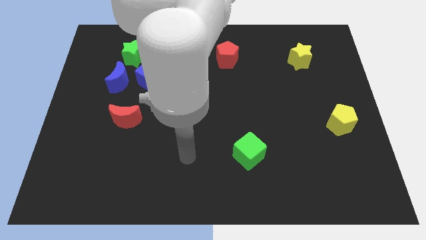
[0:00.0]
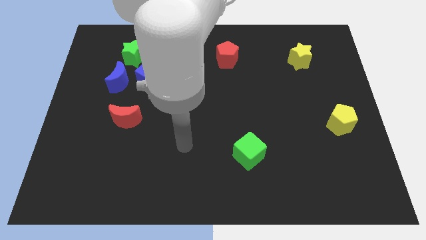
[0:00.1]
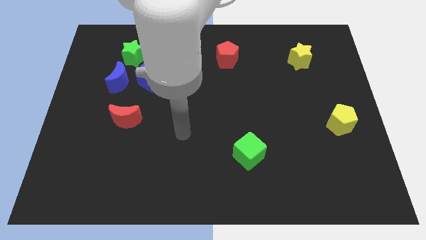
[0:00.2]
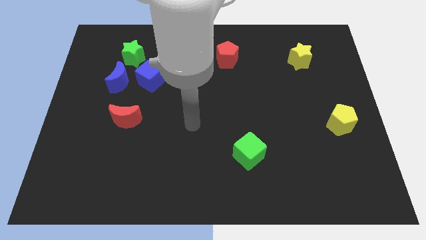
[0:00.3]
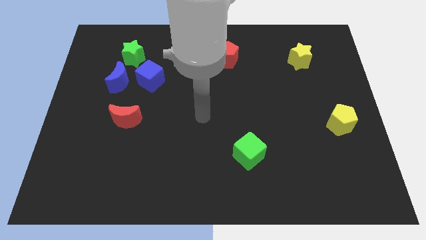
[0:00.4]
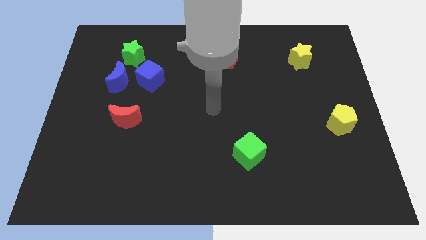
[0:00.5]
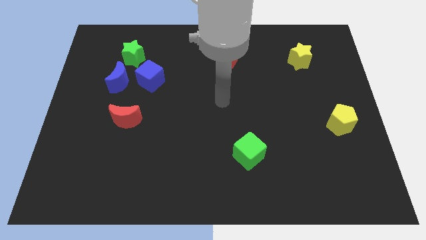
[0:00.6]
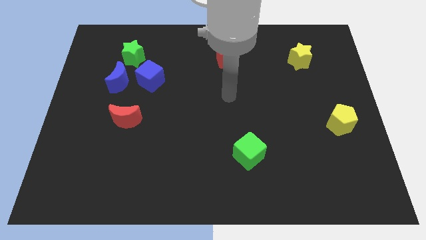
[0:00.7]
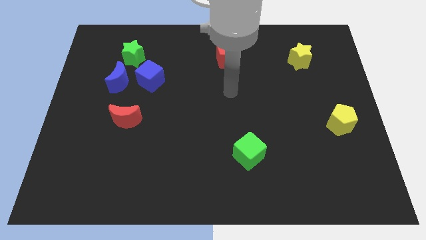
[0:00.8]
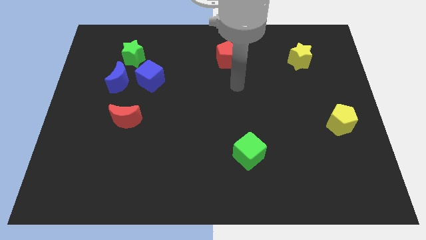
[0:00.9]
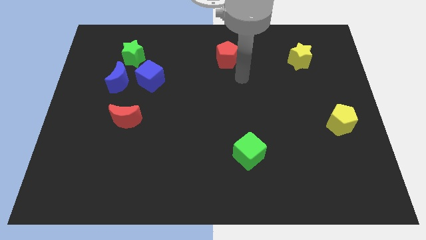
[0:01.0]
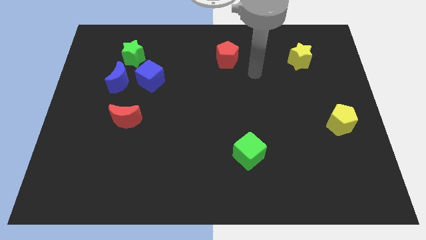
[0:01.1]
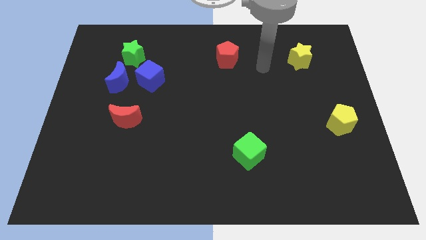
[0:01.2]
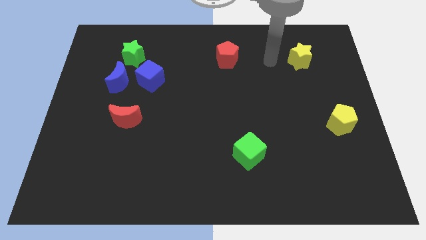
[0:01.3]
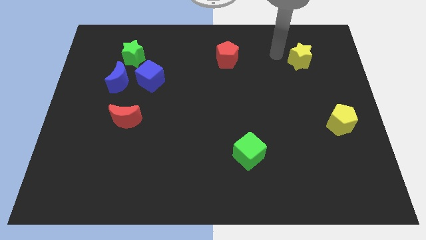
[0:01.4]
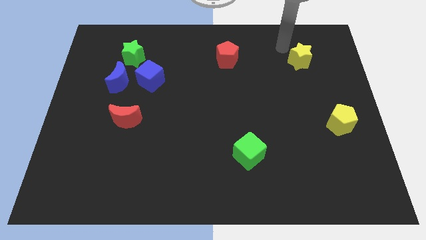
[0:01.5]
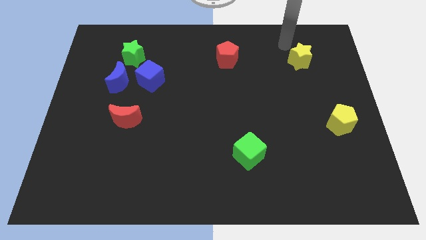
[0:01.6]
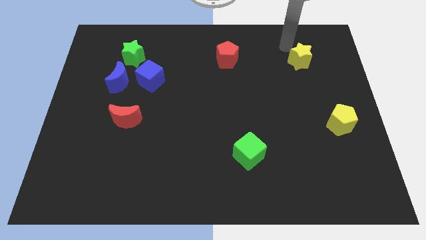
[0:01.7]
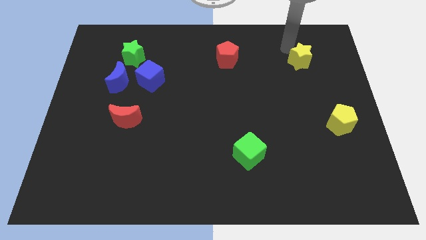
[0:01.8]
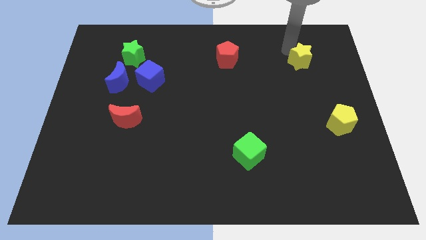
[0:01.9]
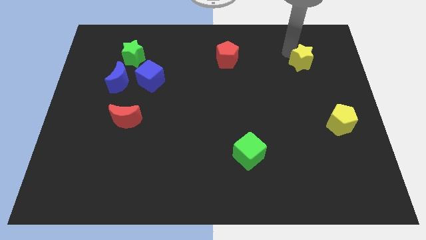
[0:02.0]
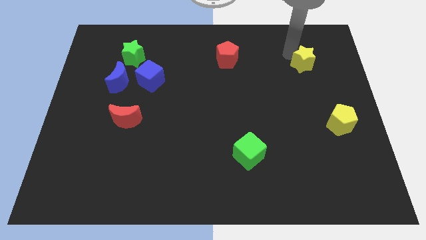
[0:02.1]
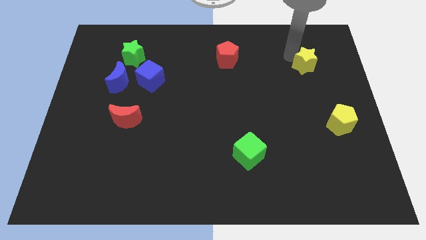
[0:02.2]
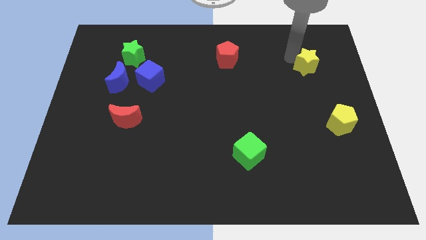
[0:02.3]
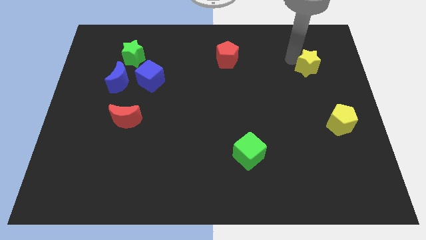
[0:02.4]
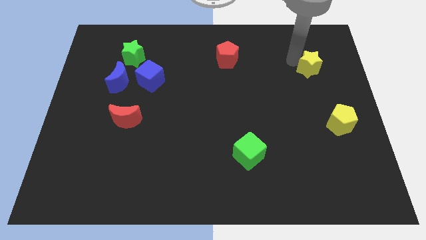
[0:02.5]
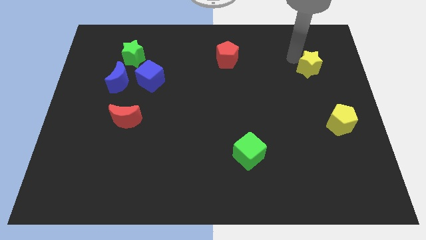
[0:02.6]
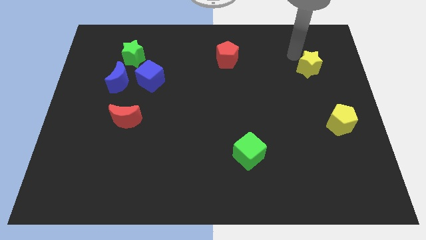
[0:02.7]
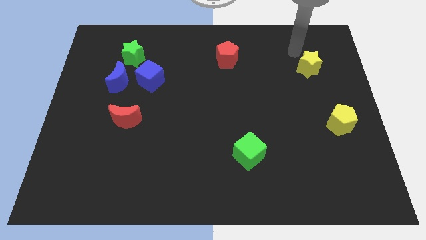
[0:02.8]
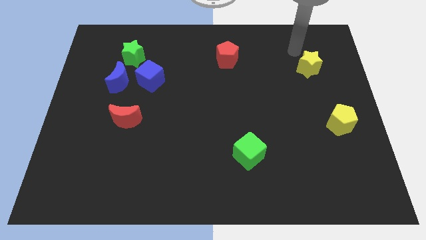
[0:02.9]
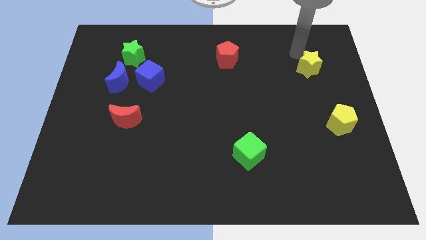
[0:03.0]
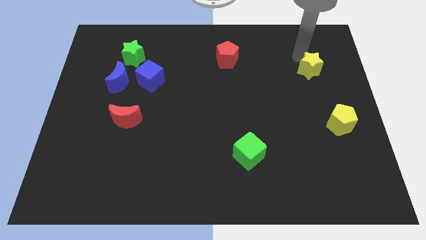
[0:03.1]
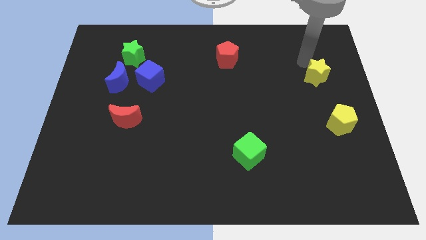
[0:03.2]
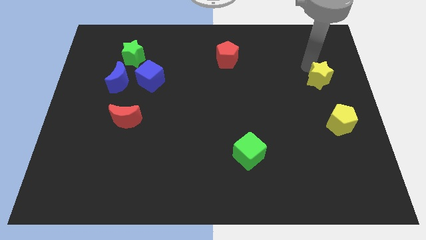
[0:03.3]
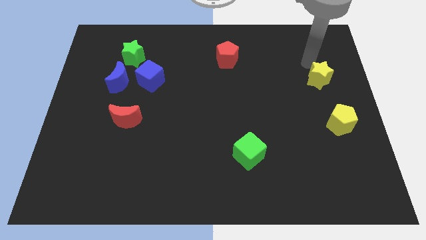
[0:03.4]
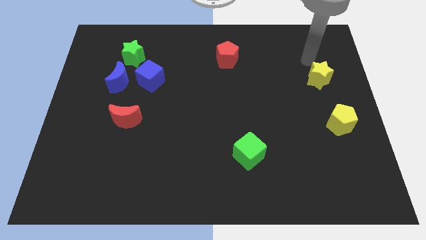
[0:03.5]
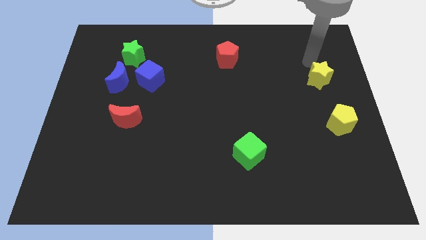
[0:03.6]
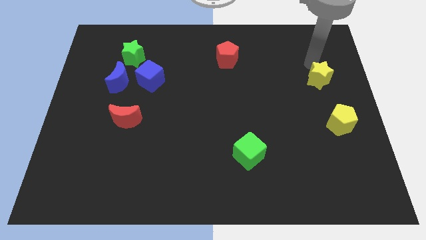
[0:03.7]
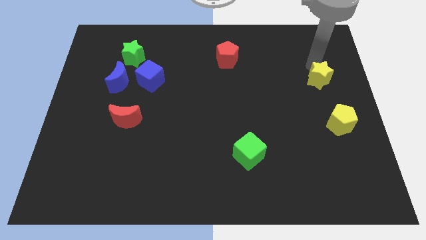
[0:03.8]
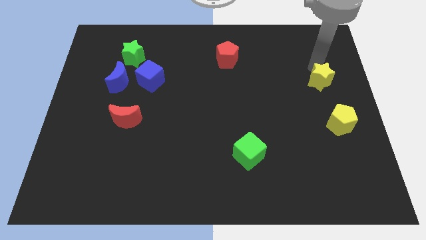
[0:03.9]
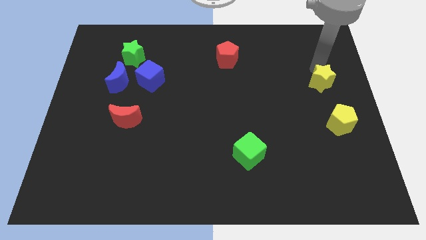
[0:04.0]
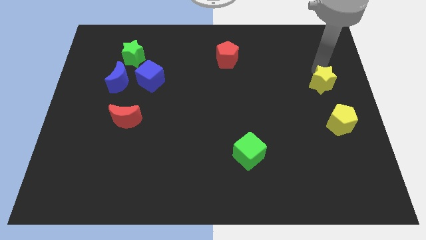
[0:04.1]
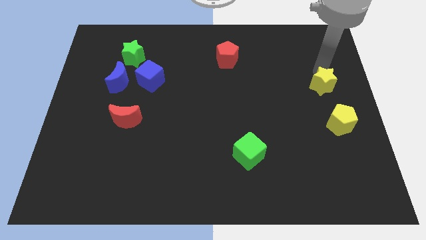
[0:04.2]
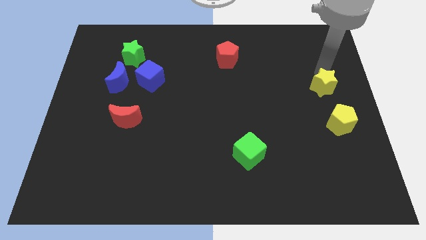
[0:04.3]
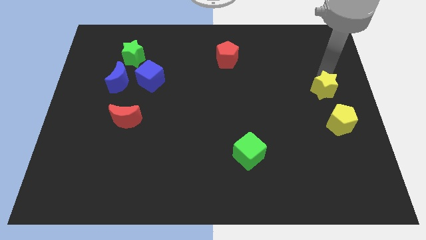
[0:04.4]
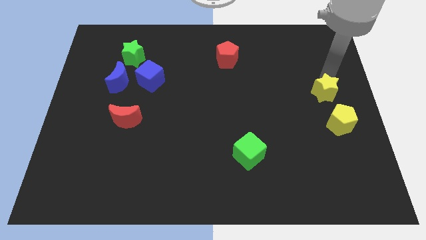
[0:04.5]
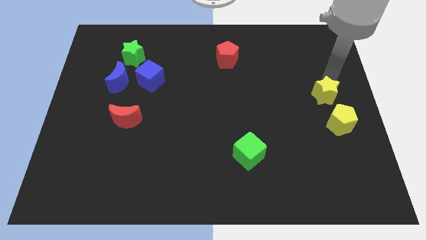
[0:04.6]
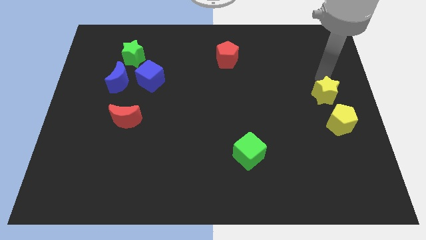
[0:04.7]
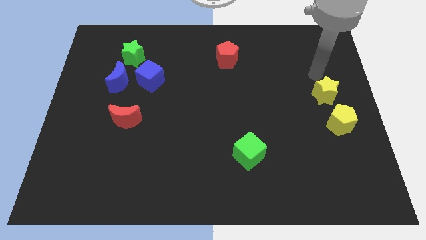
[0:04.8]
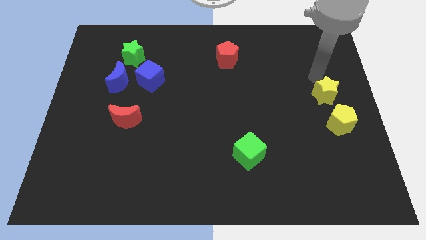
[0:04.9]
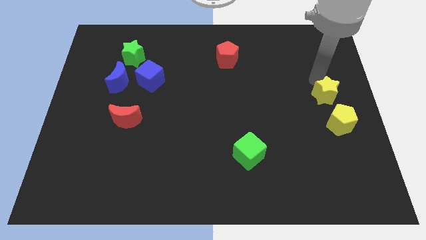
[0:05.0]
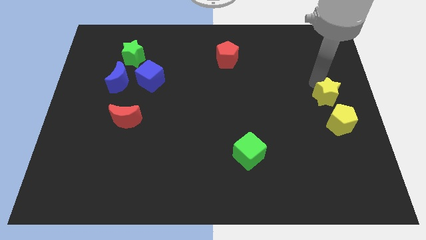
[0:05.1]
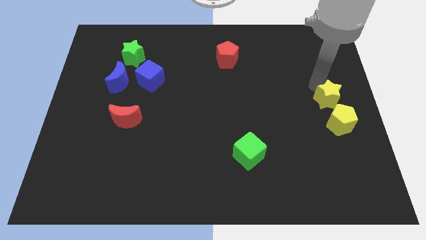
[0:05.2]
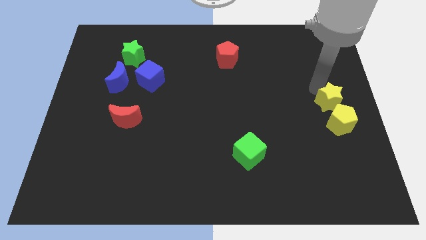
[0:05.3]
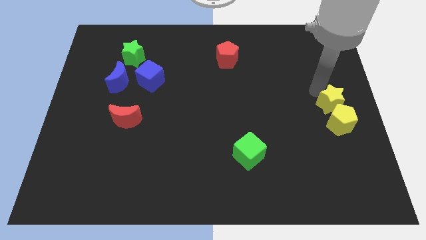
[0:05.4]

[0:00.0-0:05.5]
push the yellow star to the yellow pentagon

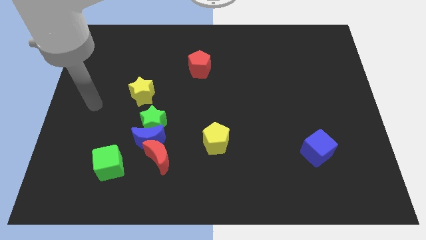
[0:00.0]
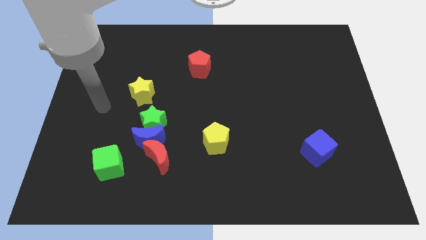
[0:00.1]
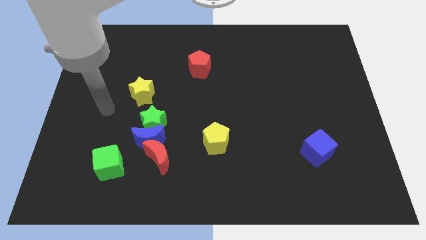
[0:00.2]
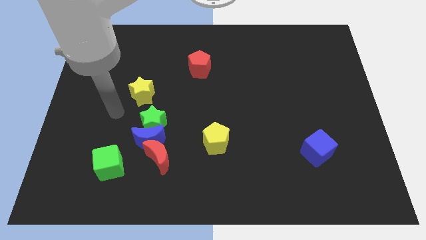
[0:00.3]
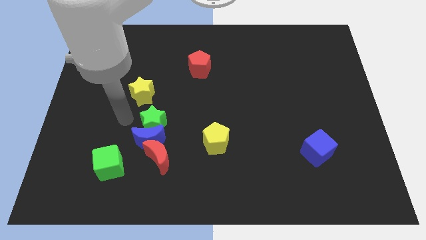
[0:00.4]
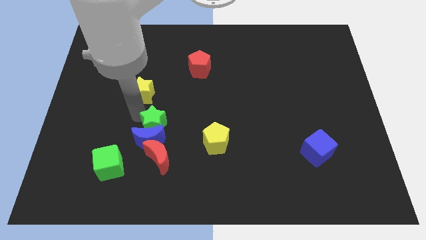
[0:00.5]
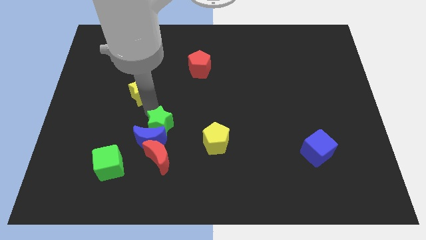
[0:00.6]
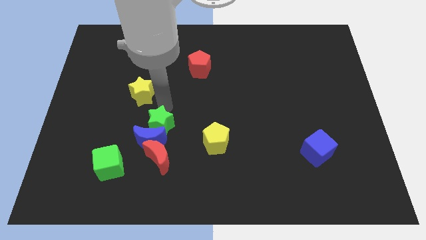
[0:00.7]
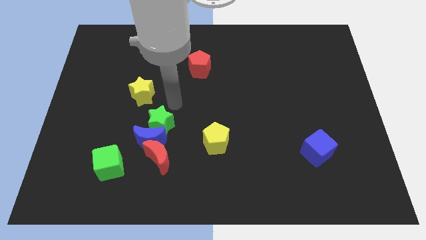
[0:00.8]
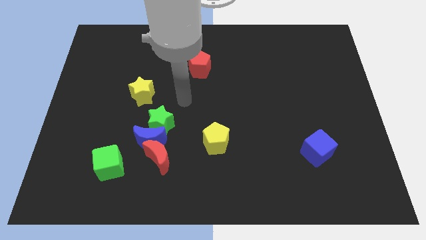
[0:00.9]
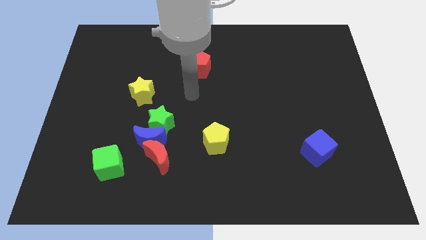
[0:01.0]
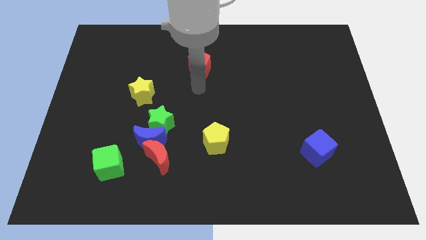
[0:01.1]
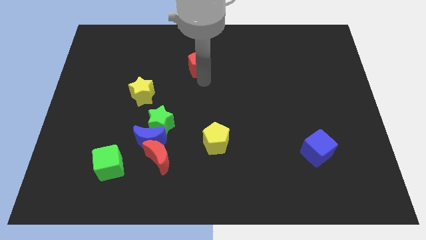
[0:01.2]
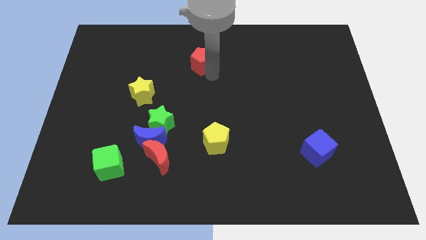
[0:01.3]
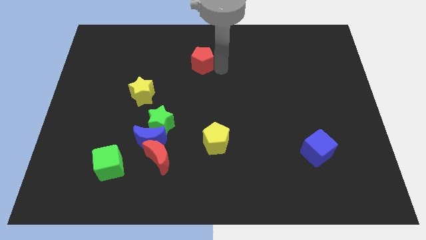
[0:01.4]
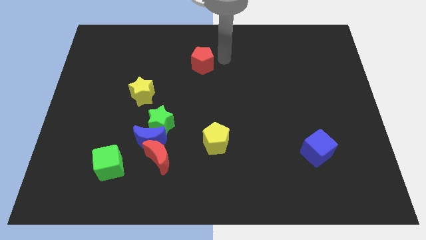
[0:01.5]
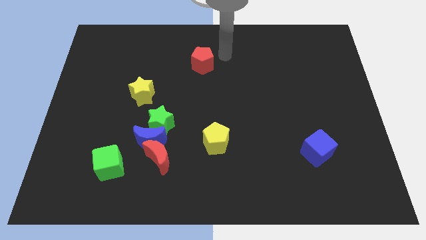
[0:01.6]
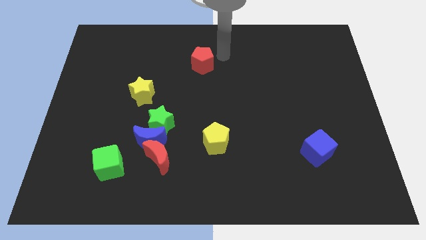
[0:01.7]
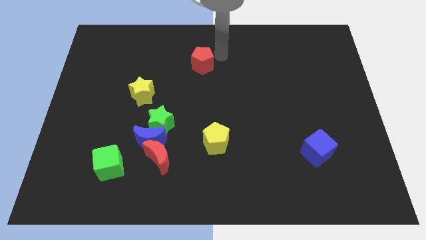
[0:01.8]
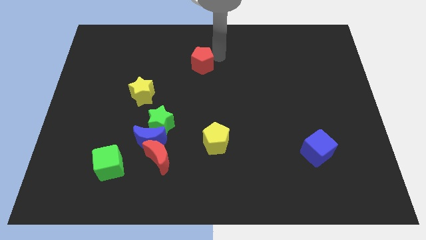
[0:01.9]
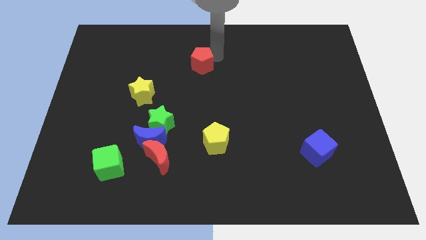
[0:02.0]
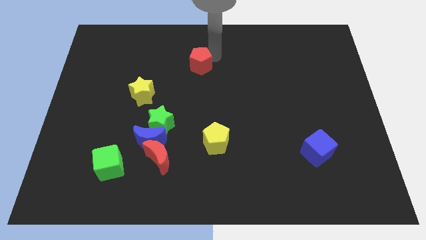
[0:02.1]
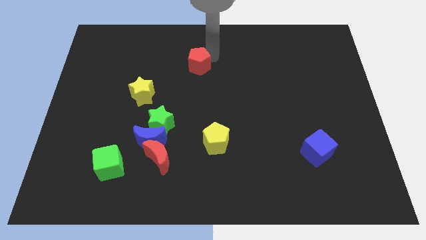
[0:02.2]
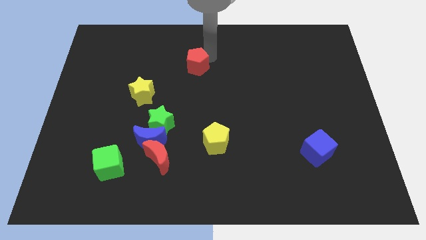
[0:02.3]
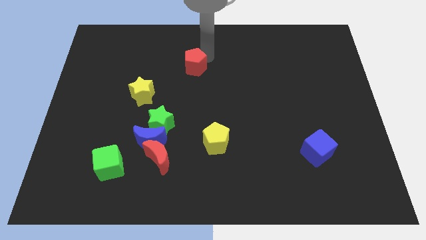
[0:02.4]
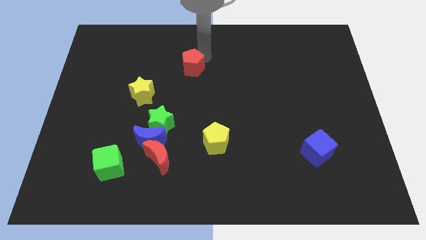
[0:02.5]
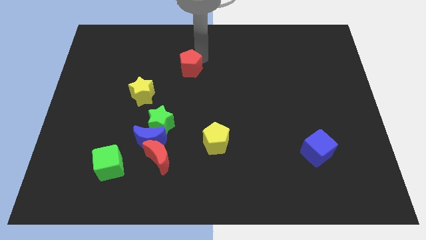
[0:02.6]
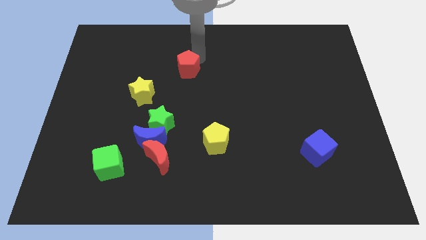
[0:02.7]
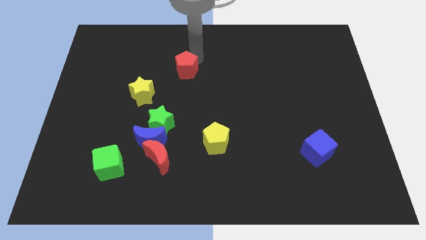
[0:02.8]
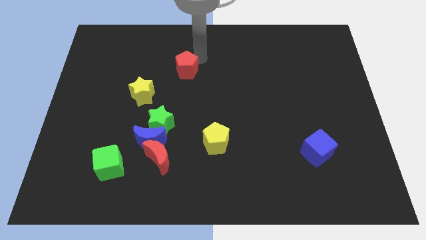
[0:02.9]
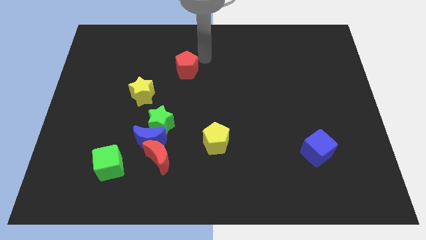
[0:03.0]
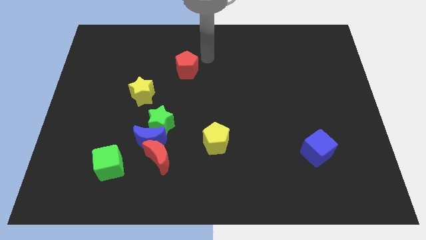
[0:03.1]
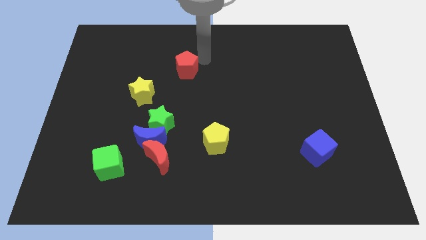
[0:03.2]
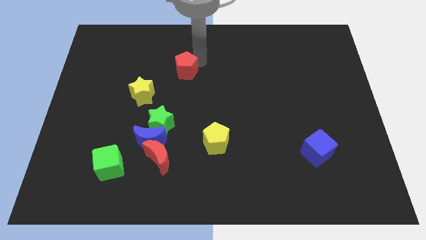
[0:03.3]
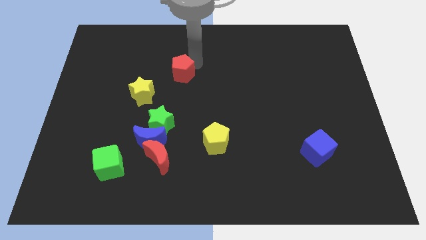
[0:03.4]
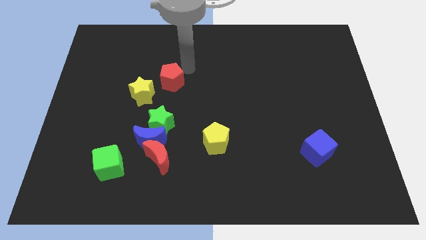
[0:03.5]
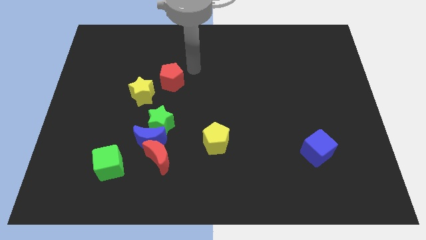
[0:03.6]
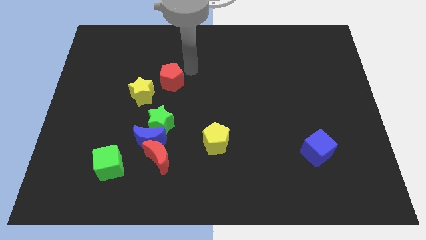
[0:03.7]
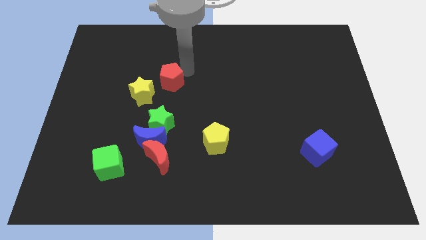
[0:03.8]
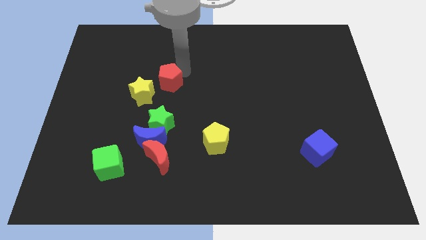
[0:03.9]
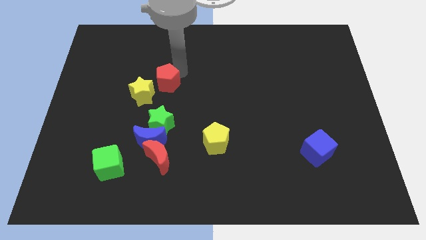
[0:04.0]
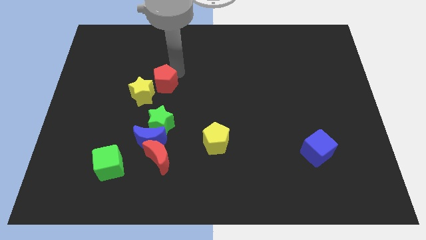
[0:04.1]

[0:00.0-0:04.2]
move the red pentagon towards the yellow star
